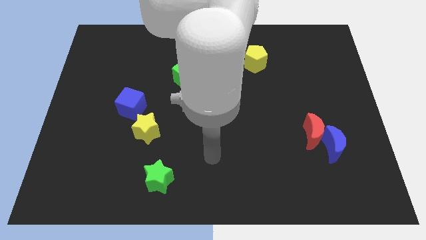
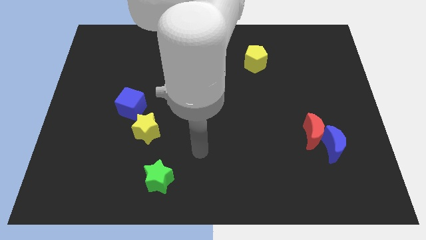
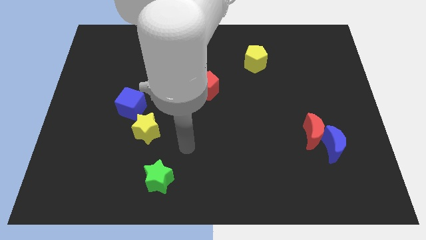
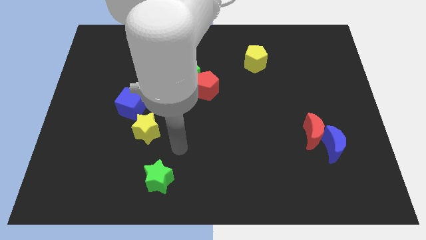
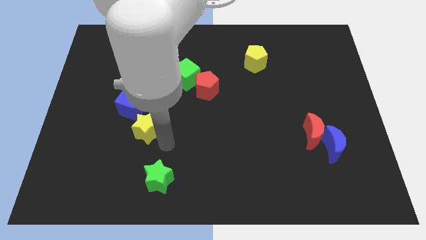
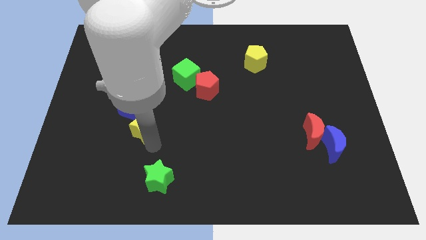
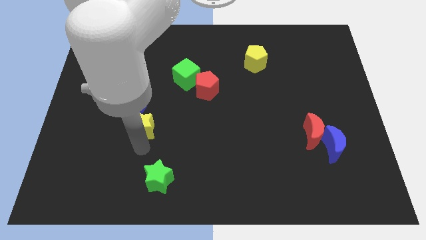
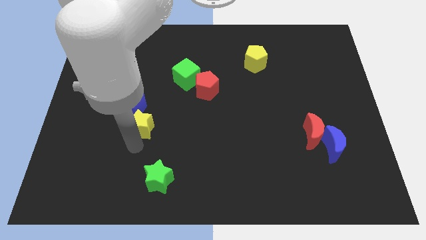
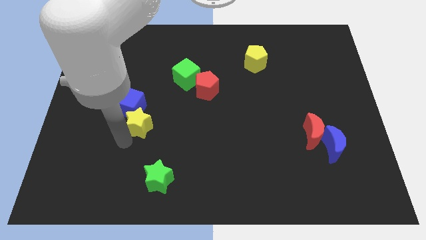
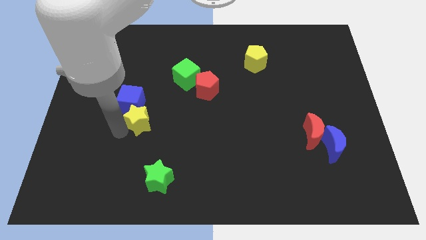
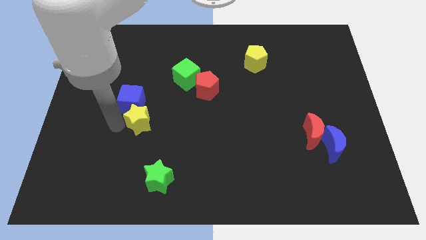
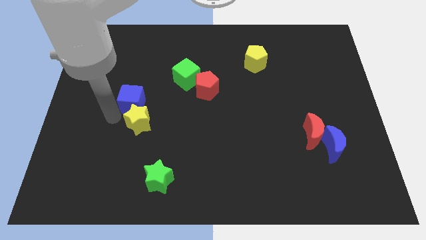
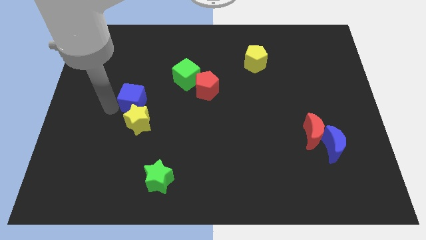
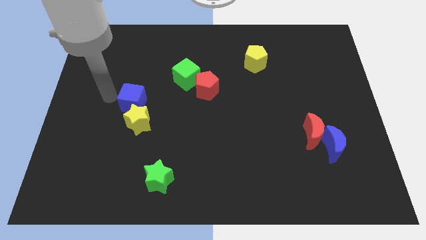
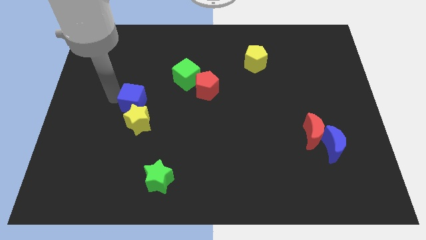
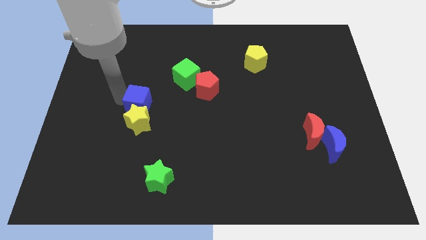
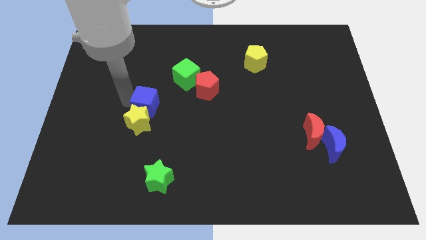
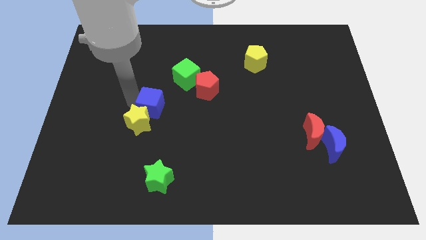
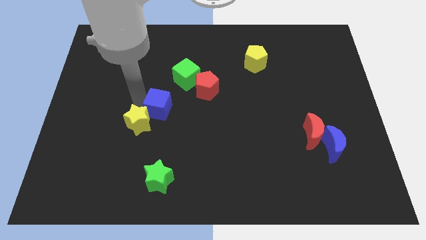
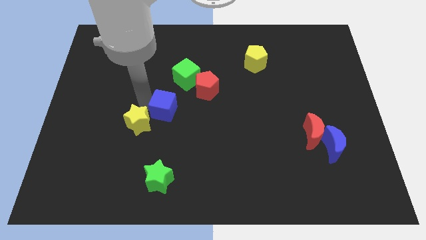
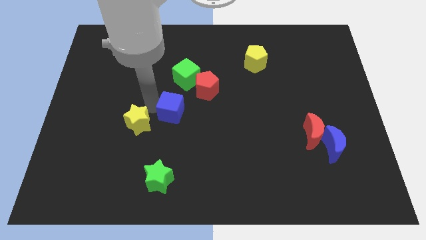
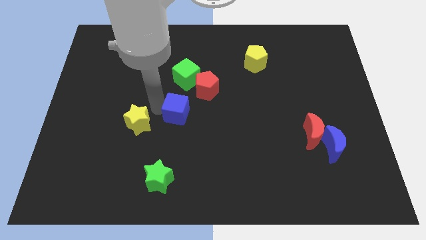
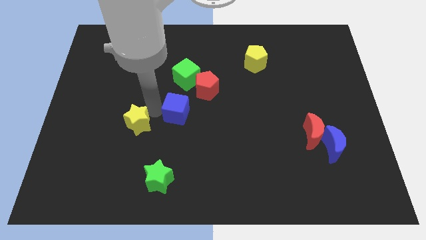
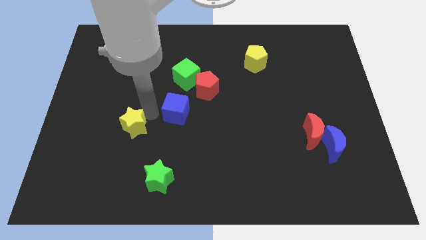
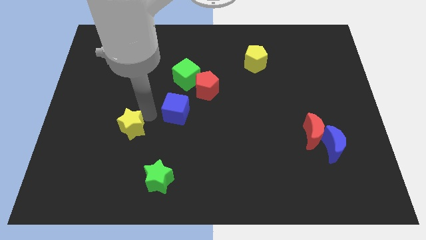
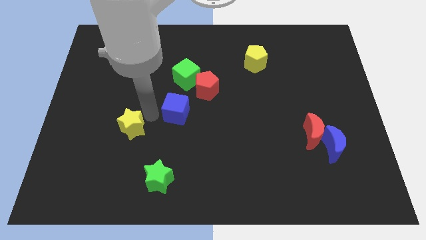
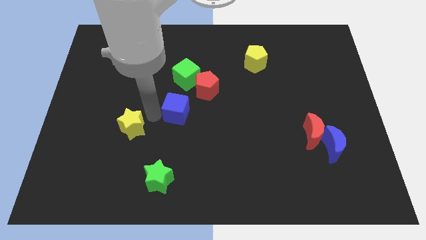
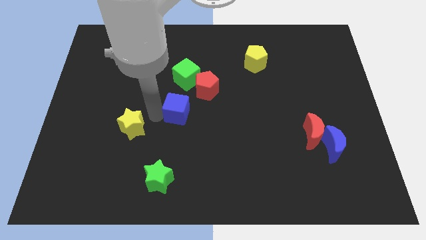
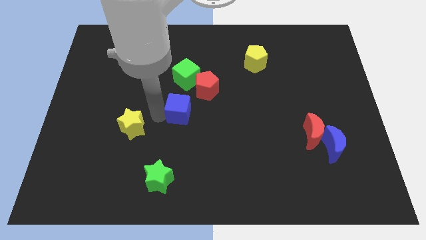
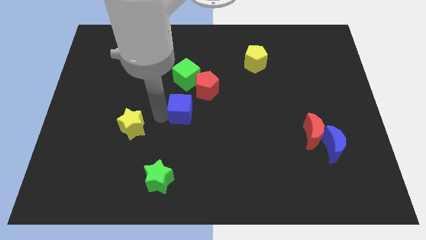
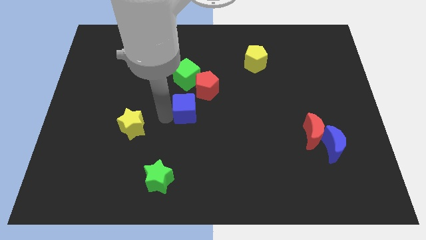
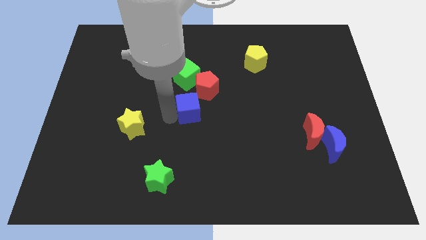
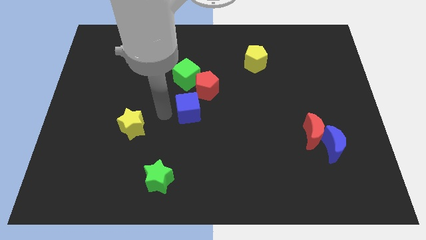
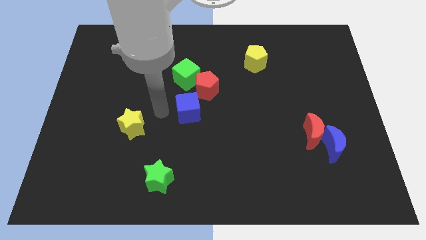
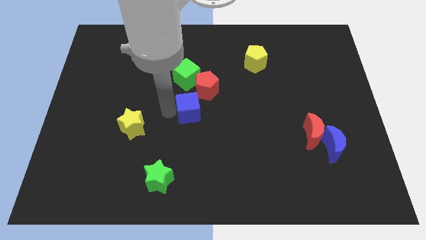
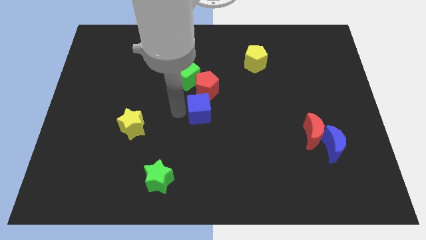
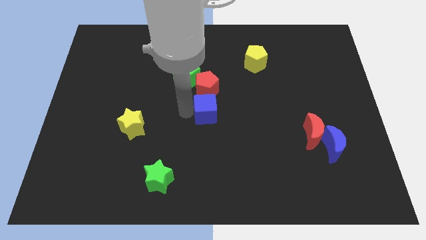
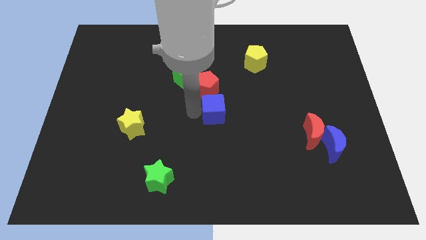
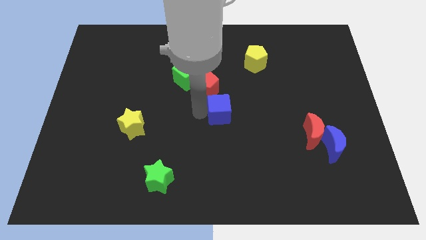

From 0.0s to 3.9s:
slide the blue cube to the right

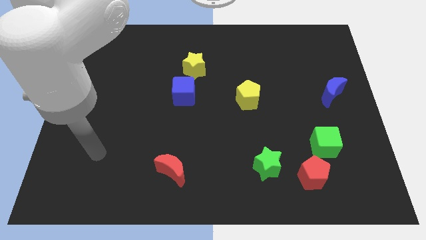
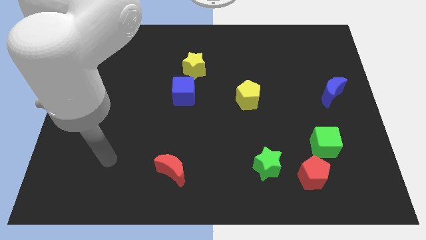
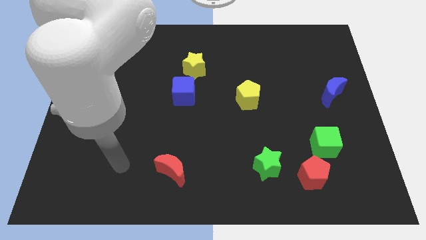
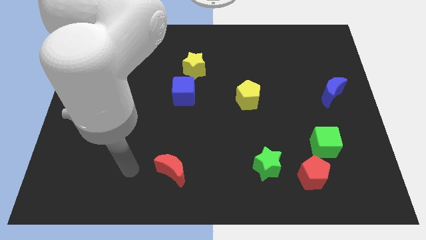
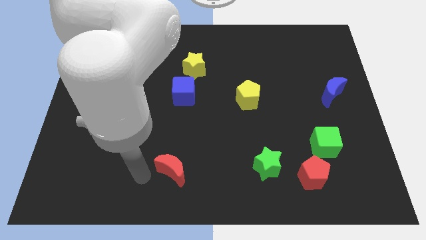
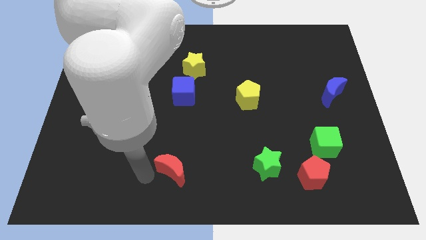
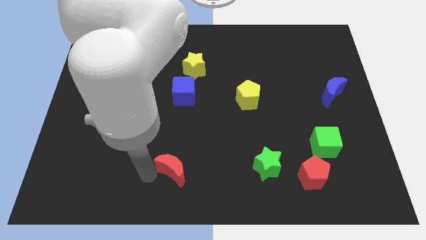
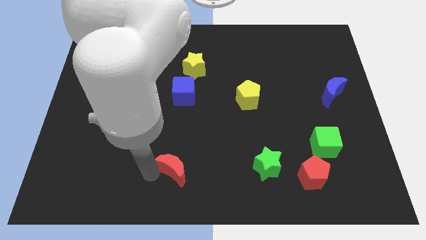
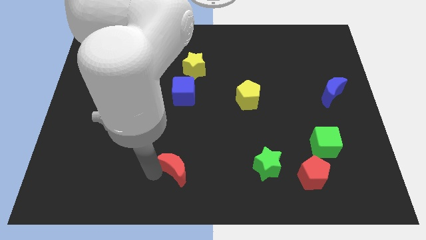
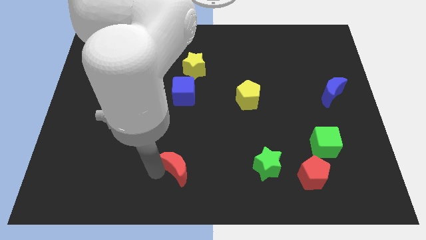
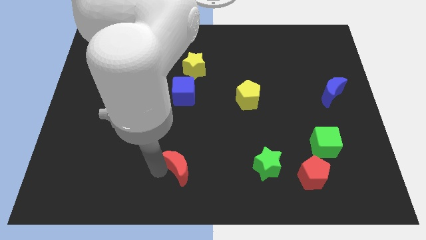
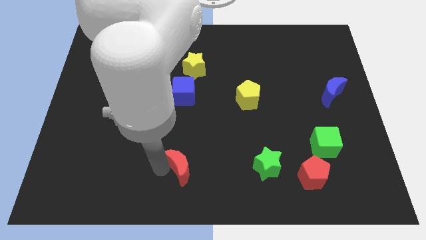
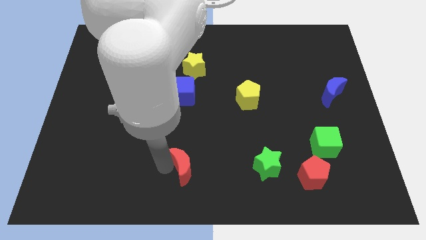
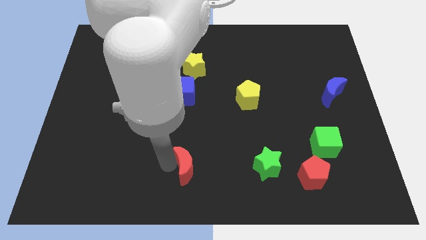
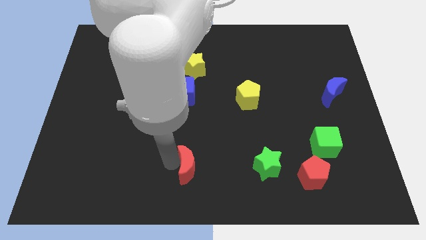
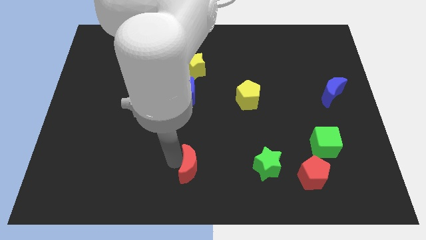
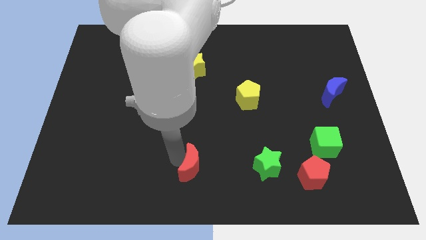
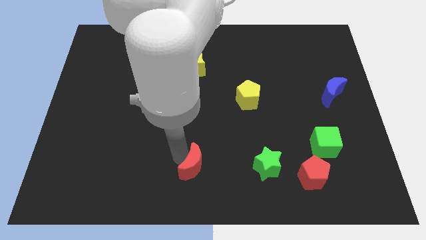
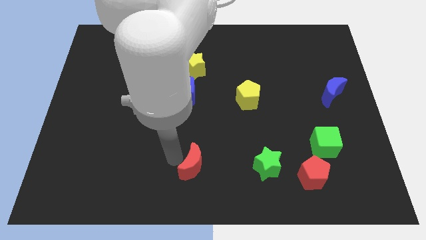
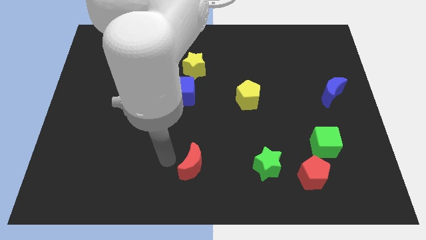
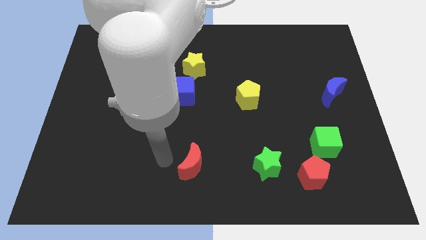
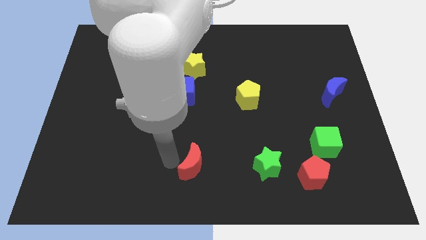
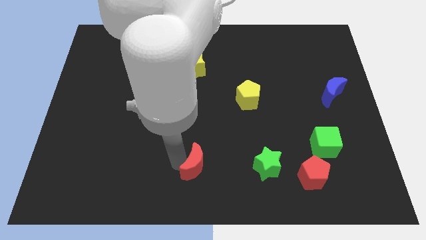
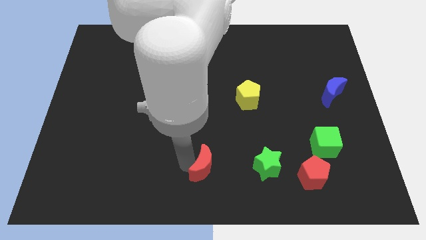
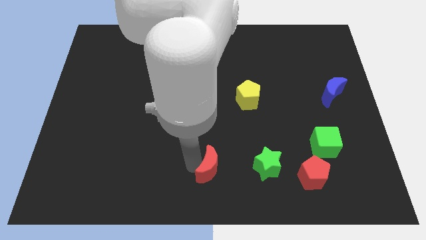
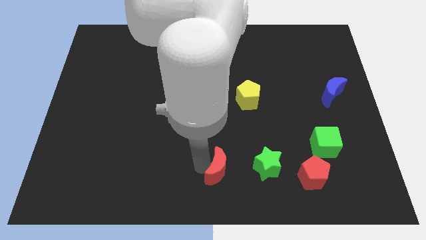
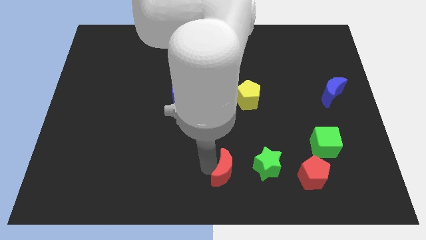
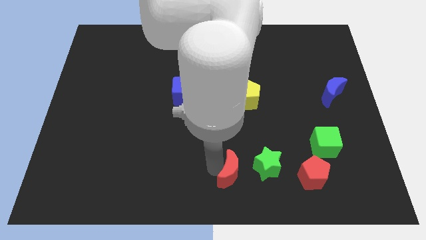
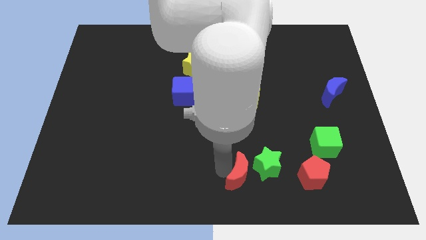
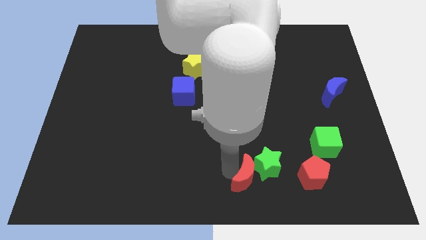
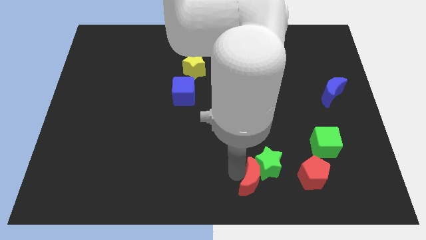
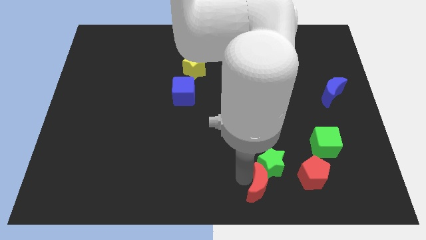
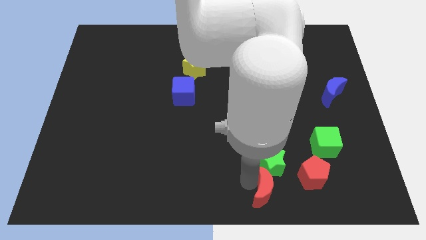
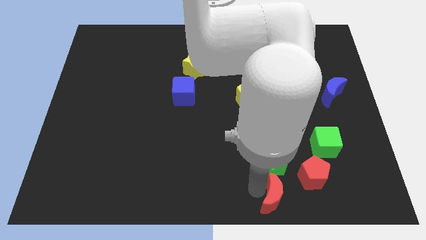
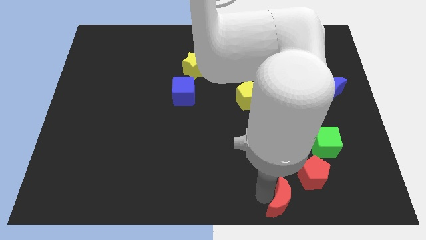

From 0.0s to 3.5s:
slide the red moon right

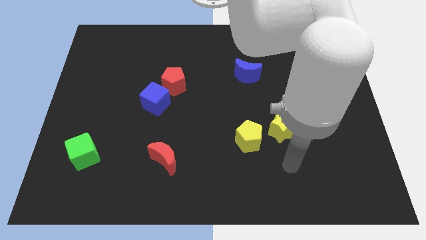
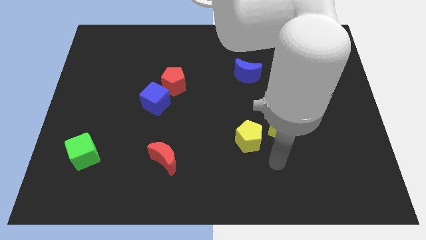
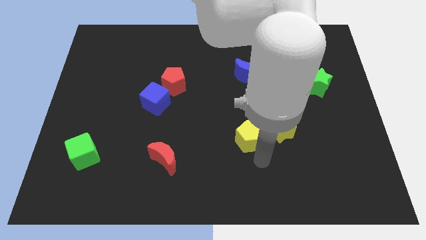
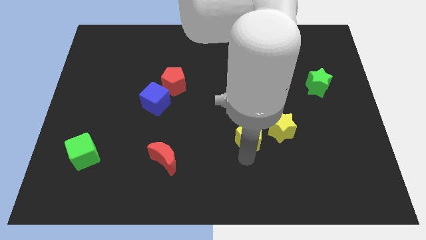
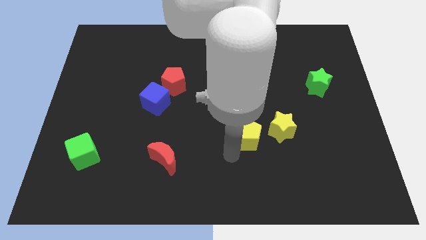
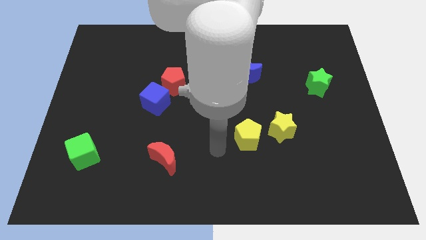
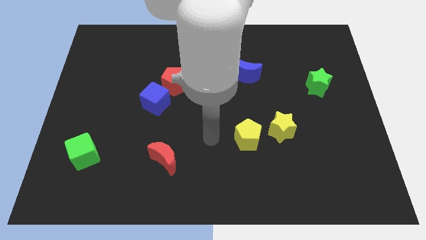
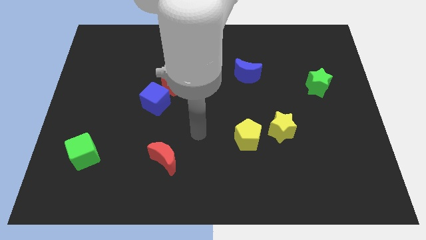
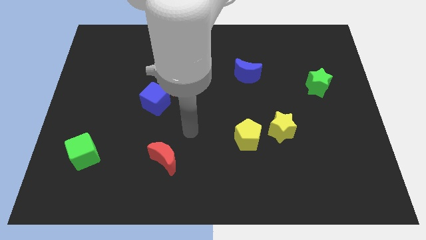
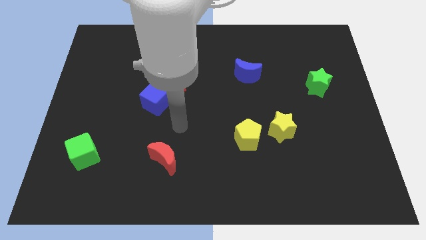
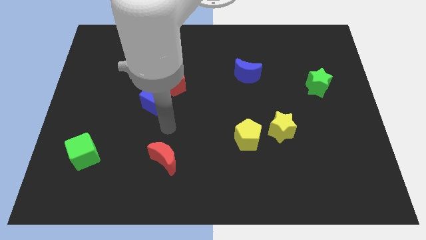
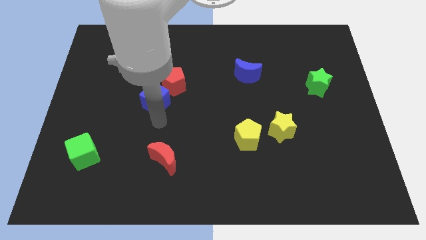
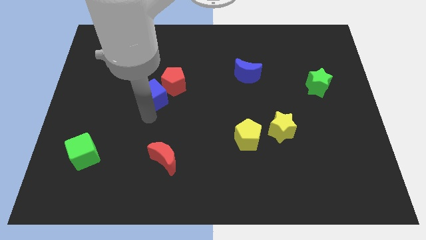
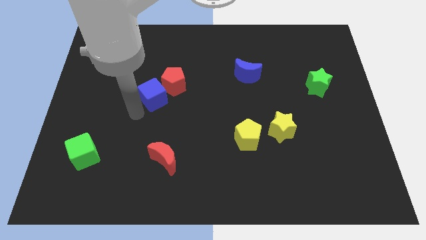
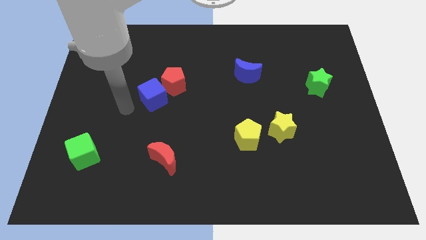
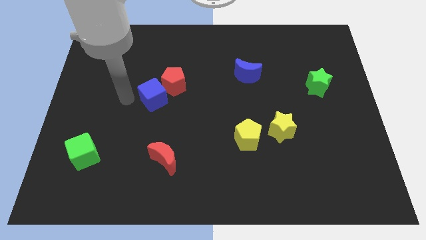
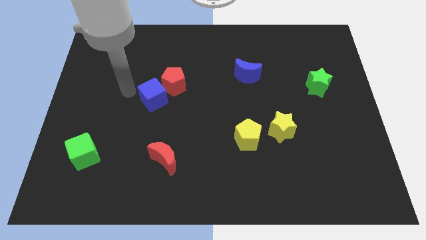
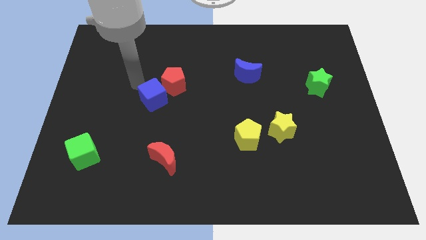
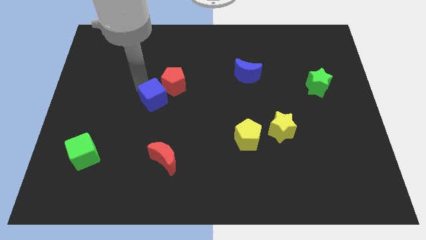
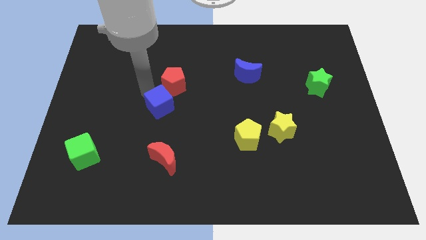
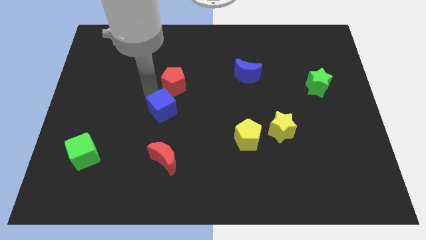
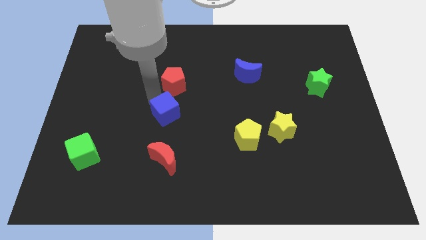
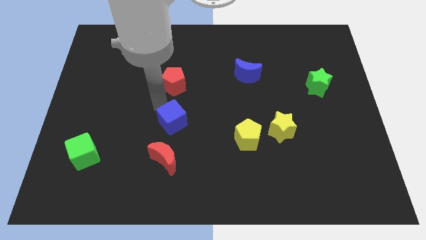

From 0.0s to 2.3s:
move the blue cube downwards and right diagonally slightly
